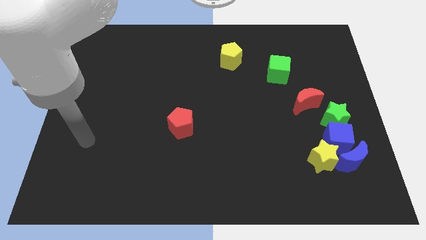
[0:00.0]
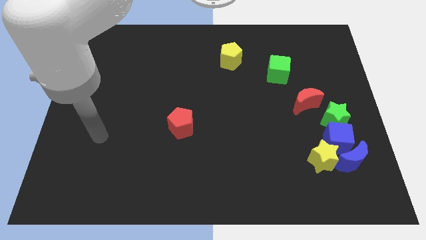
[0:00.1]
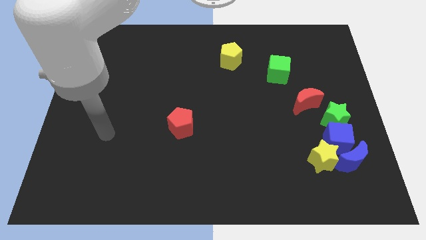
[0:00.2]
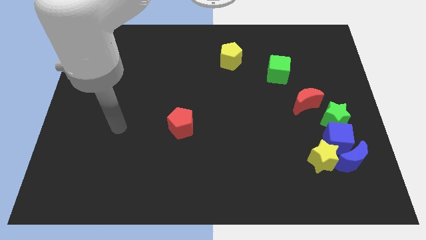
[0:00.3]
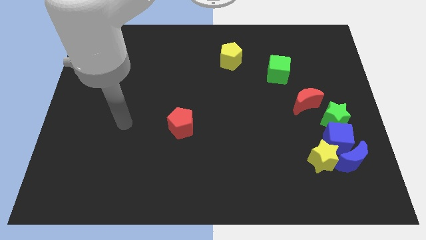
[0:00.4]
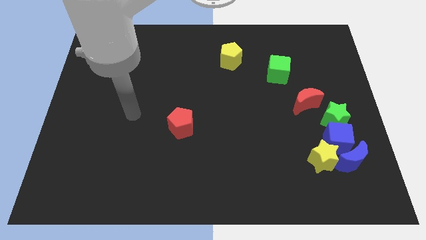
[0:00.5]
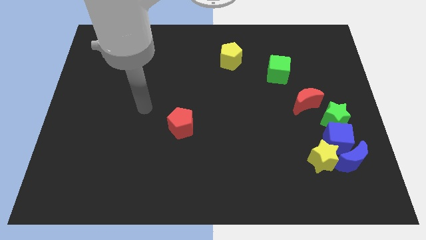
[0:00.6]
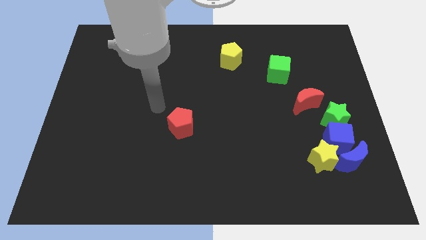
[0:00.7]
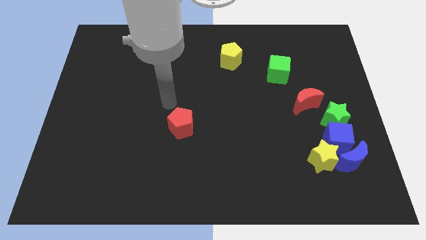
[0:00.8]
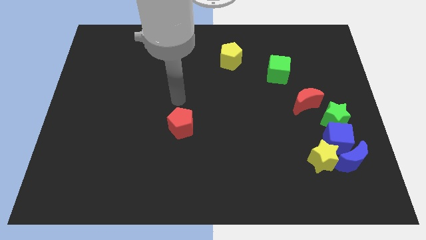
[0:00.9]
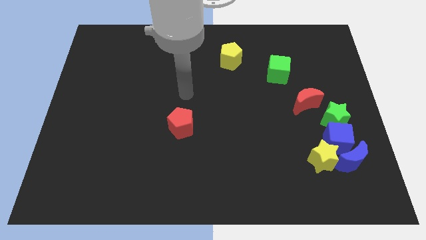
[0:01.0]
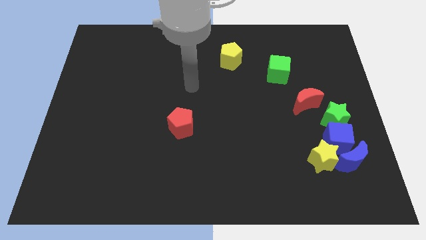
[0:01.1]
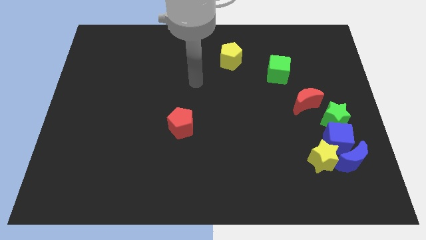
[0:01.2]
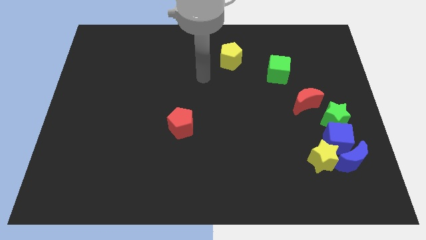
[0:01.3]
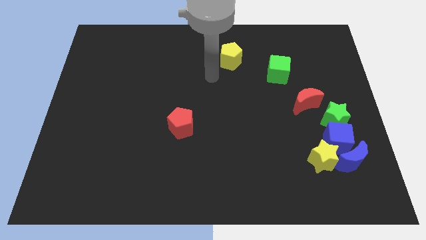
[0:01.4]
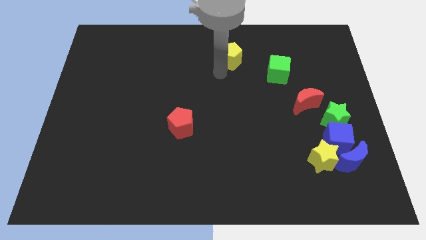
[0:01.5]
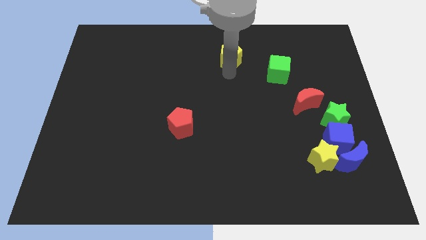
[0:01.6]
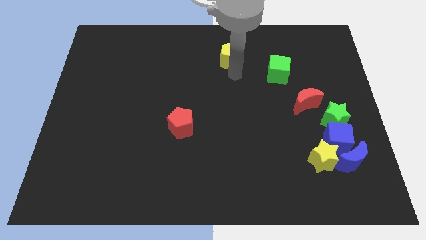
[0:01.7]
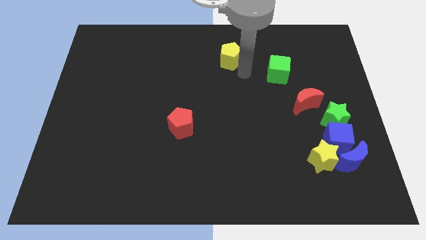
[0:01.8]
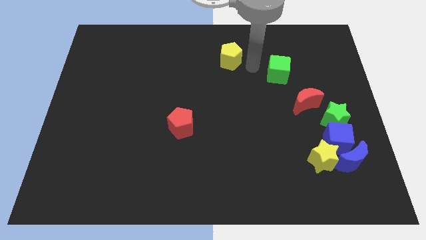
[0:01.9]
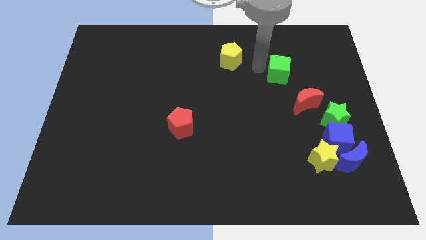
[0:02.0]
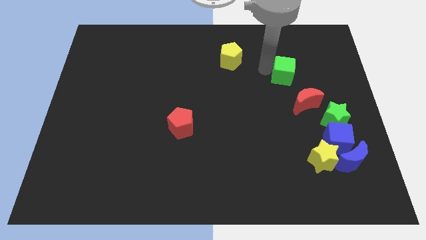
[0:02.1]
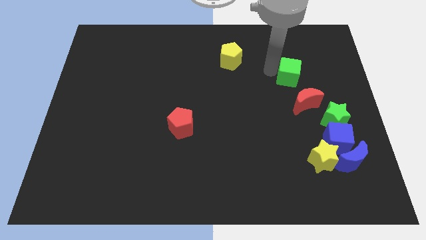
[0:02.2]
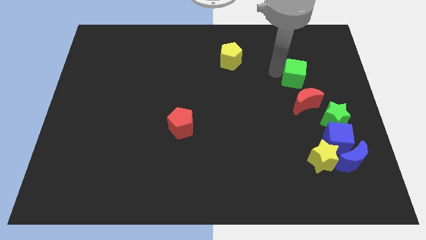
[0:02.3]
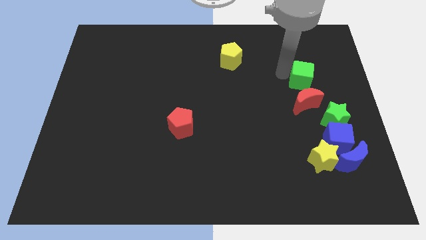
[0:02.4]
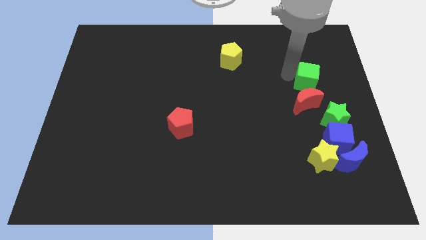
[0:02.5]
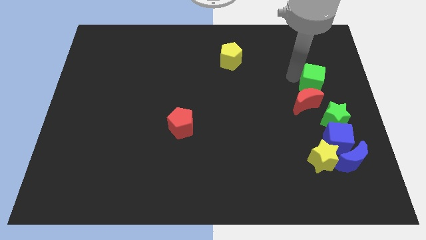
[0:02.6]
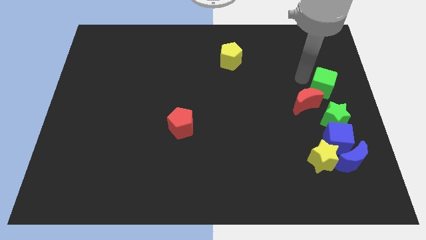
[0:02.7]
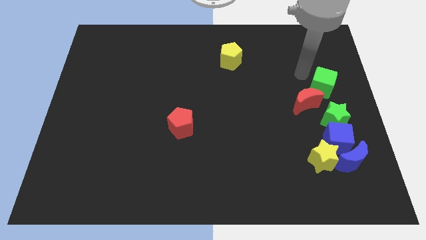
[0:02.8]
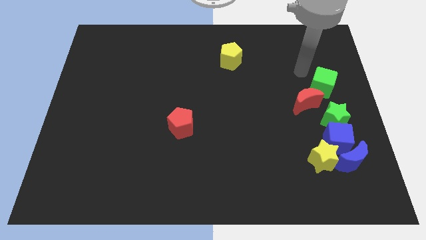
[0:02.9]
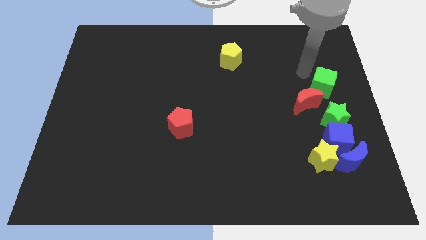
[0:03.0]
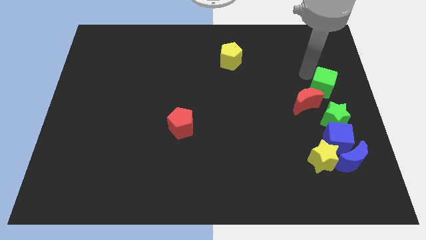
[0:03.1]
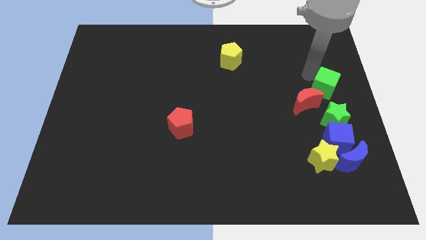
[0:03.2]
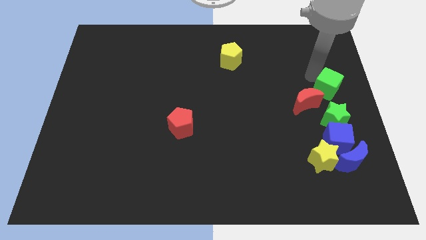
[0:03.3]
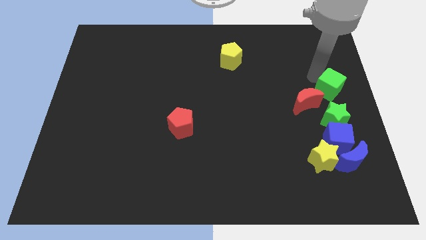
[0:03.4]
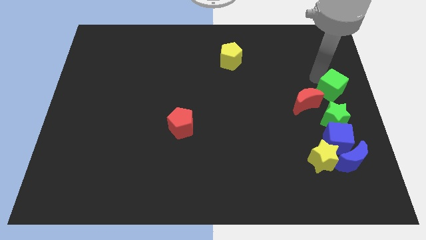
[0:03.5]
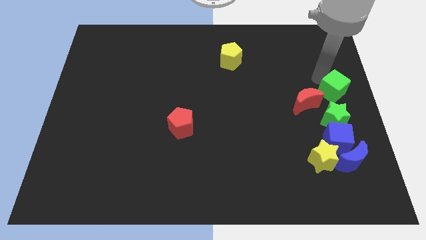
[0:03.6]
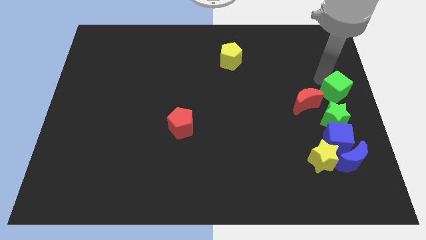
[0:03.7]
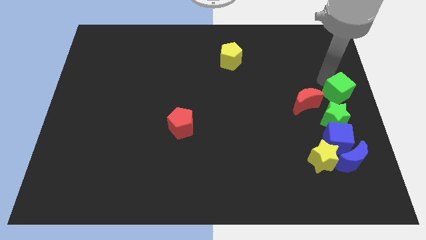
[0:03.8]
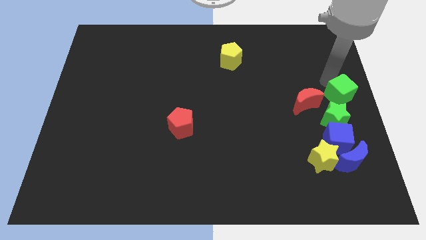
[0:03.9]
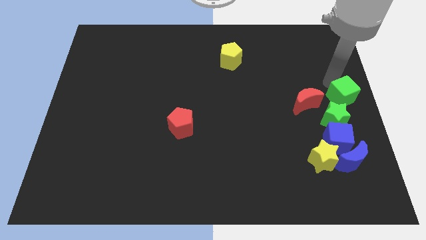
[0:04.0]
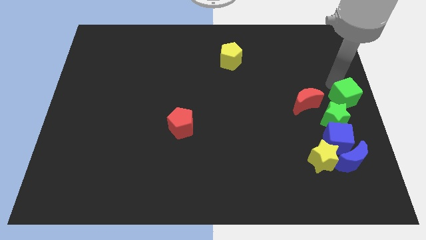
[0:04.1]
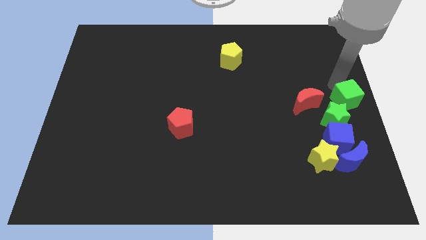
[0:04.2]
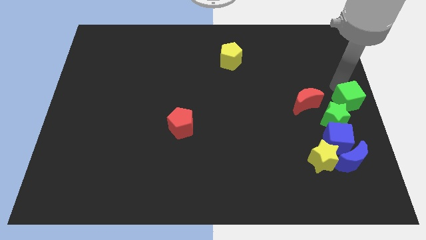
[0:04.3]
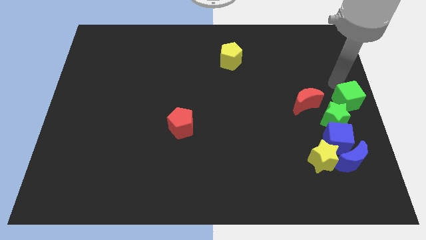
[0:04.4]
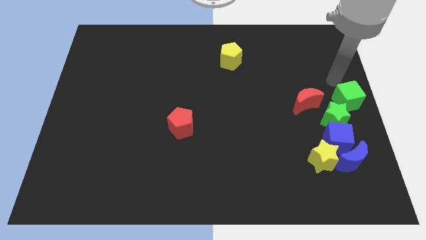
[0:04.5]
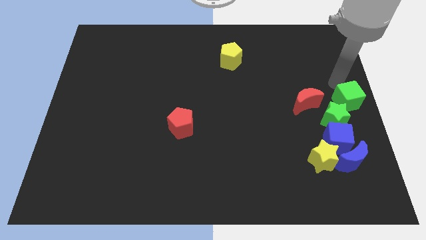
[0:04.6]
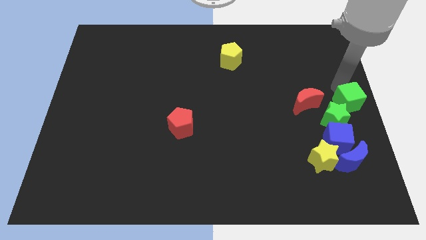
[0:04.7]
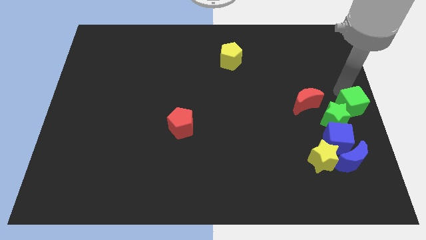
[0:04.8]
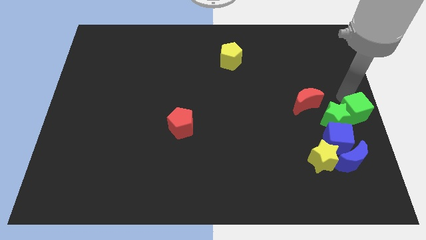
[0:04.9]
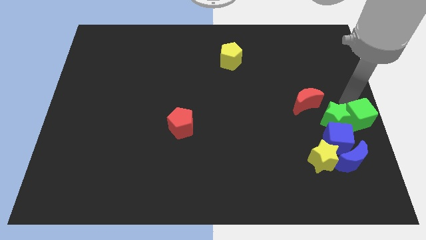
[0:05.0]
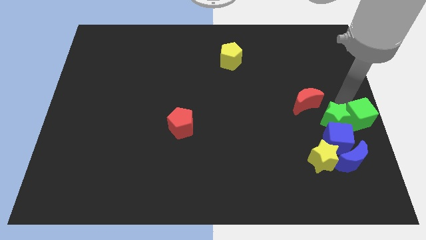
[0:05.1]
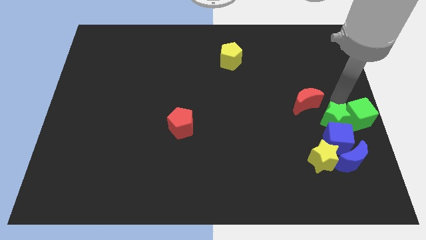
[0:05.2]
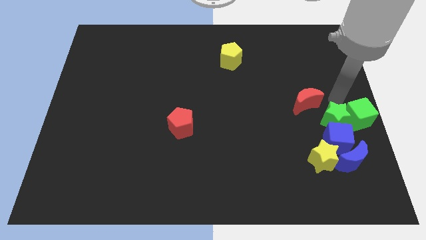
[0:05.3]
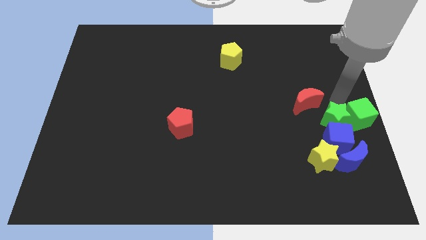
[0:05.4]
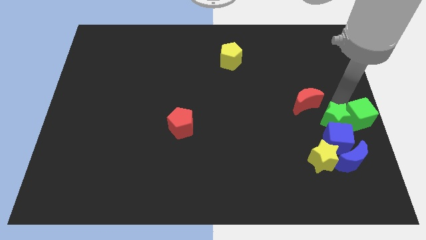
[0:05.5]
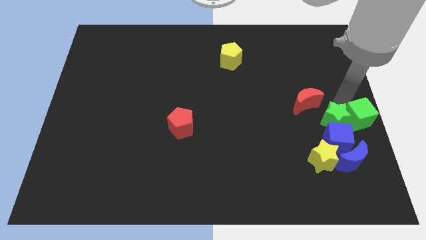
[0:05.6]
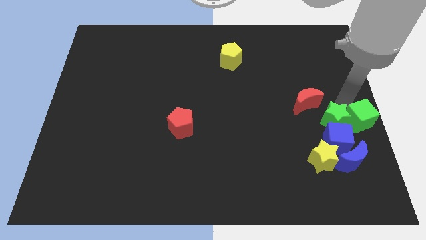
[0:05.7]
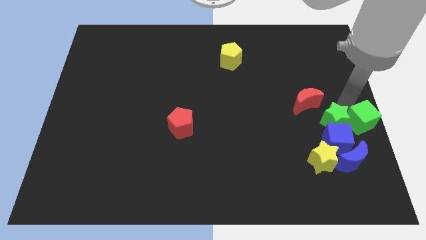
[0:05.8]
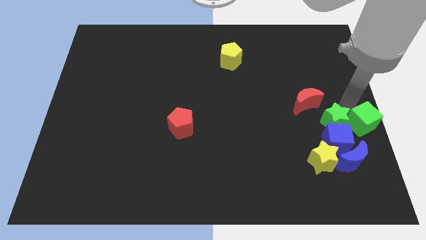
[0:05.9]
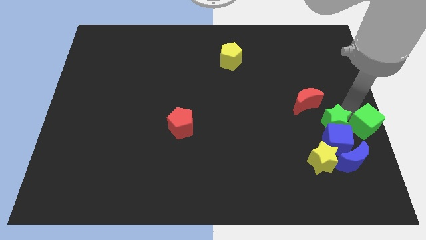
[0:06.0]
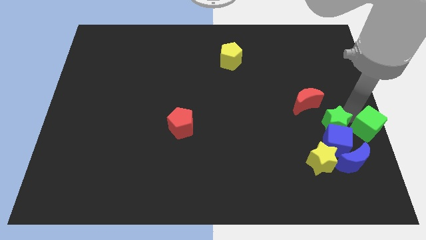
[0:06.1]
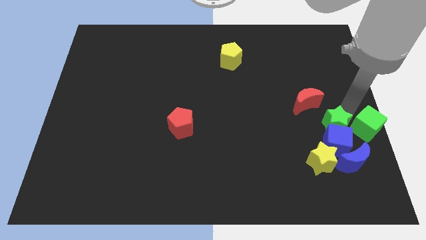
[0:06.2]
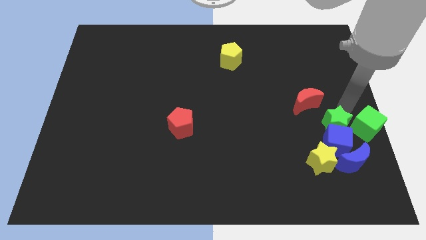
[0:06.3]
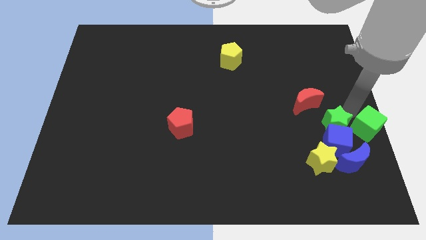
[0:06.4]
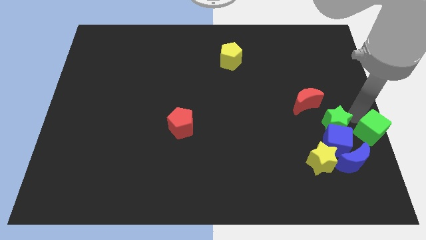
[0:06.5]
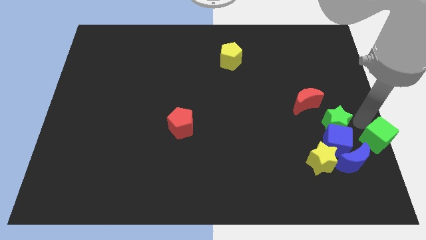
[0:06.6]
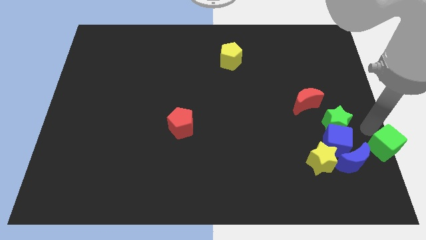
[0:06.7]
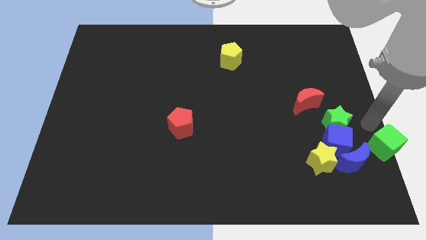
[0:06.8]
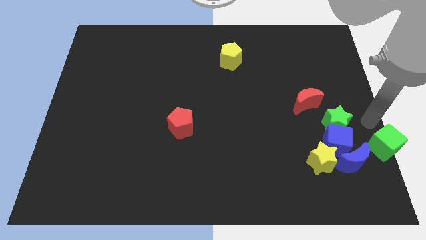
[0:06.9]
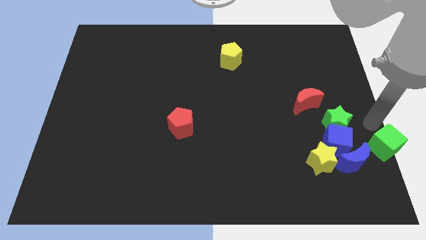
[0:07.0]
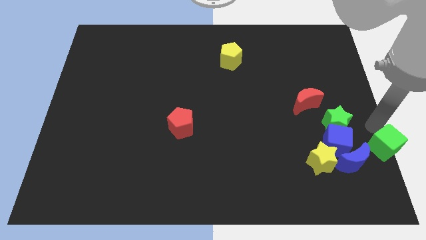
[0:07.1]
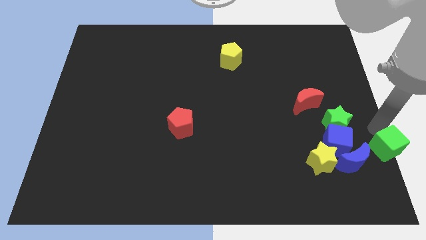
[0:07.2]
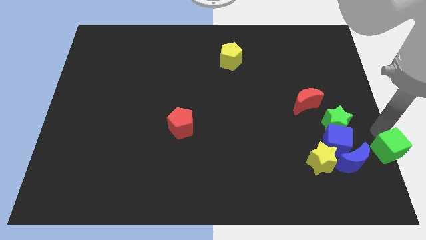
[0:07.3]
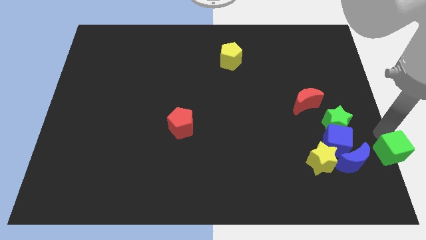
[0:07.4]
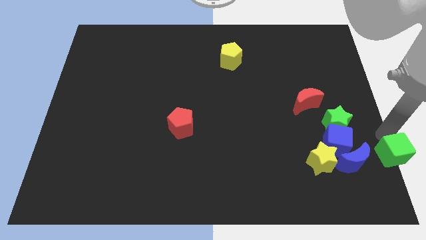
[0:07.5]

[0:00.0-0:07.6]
put the green cube to the bottom right corner

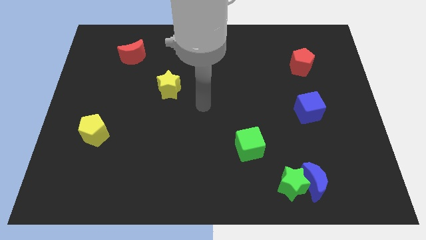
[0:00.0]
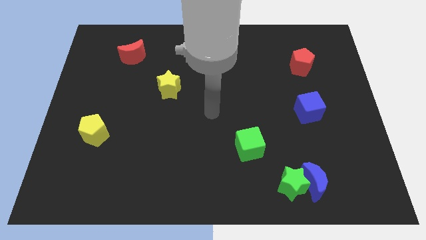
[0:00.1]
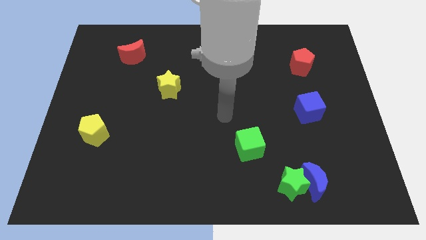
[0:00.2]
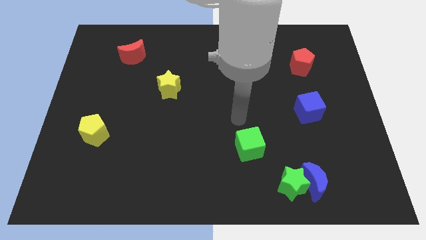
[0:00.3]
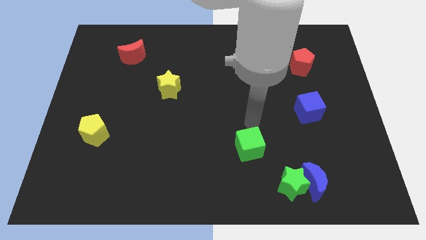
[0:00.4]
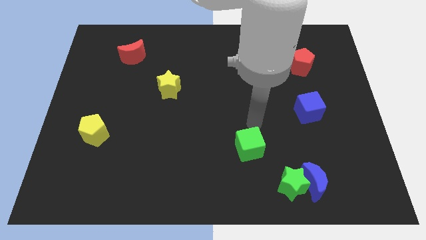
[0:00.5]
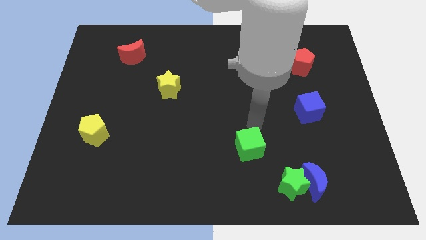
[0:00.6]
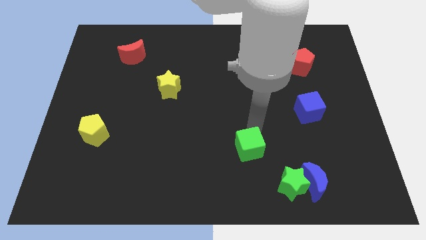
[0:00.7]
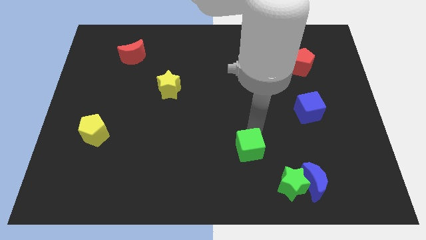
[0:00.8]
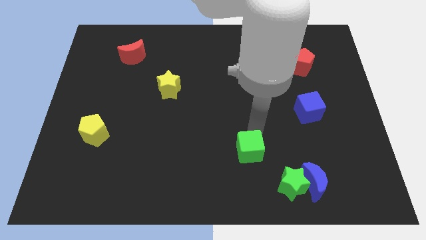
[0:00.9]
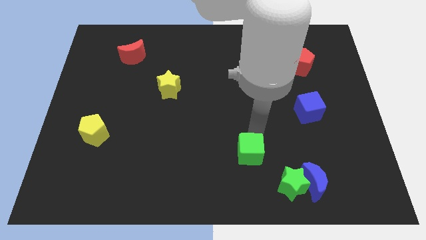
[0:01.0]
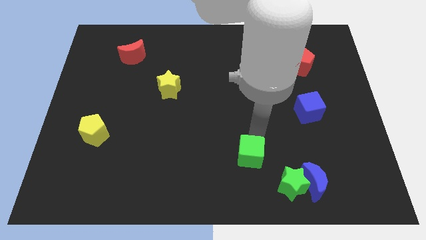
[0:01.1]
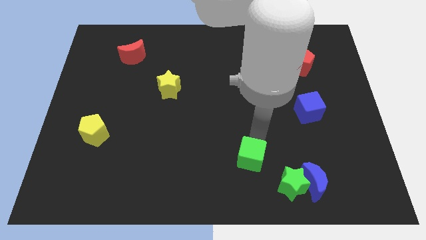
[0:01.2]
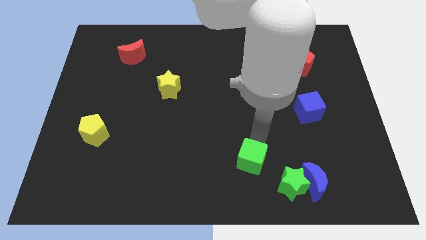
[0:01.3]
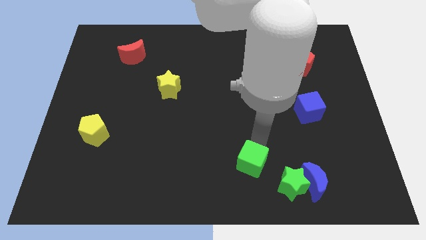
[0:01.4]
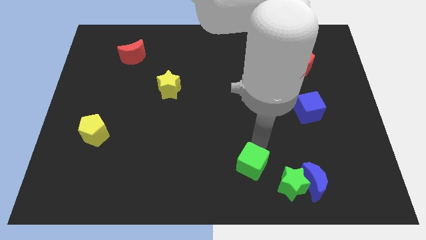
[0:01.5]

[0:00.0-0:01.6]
move the green cube to the bottom side
